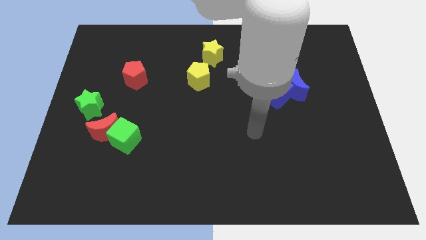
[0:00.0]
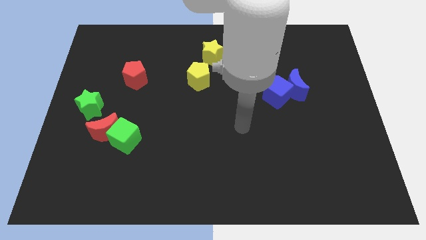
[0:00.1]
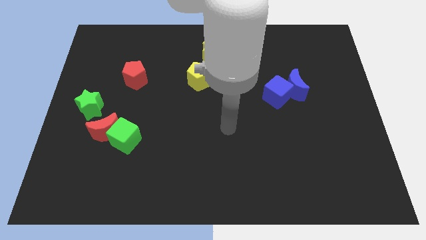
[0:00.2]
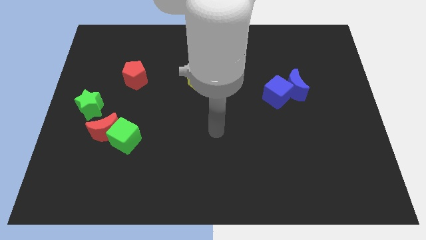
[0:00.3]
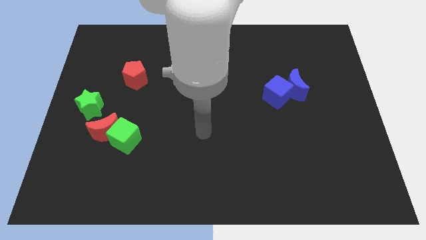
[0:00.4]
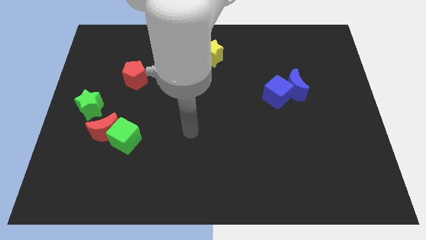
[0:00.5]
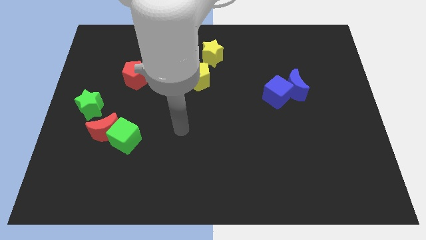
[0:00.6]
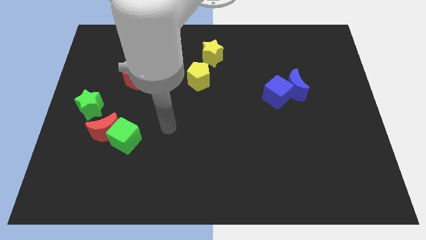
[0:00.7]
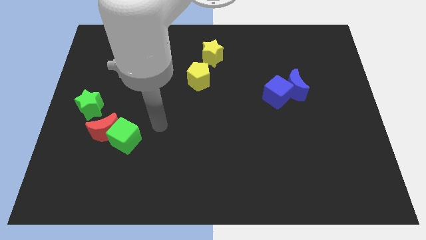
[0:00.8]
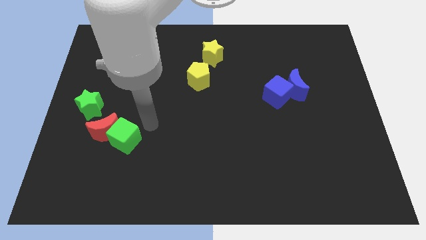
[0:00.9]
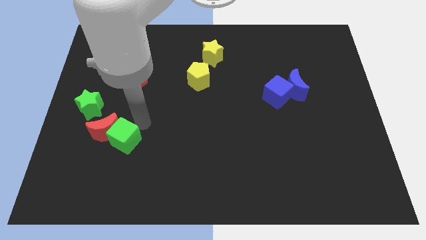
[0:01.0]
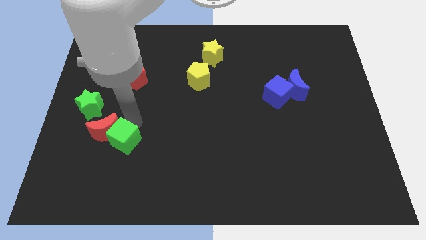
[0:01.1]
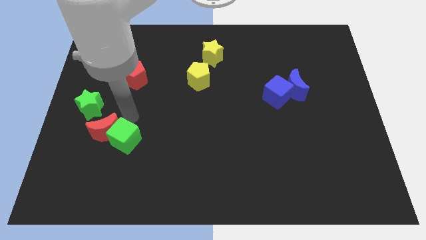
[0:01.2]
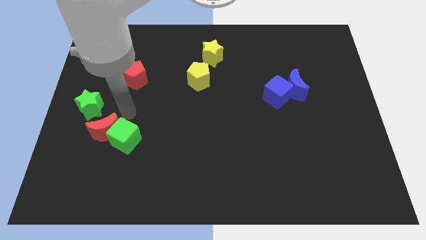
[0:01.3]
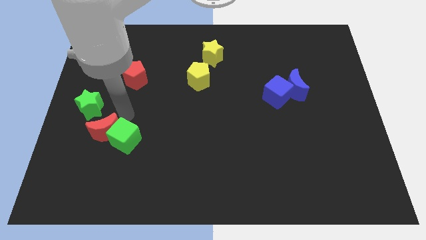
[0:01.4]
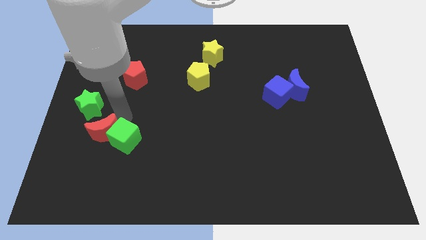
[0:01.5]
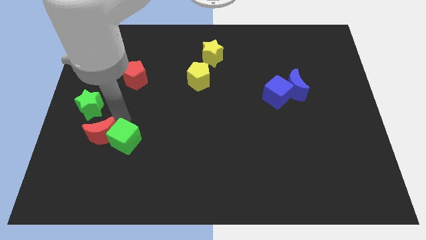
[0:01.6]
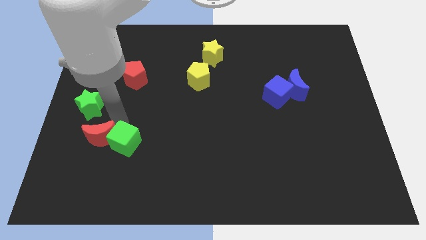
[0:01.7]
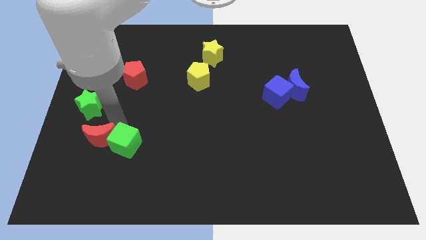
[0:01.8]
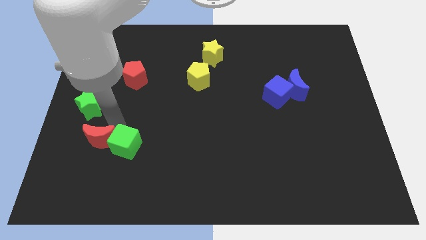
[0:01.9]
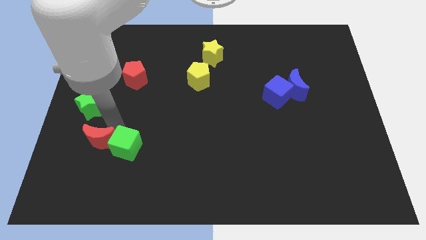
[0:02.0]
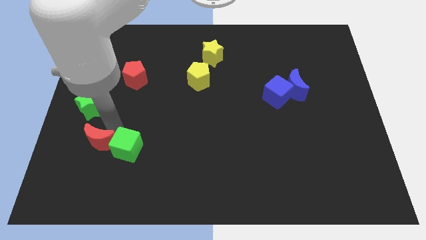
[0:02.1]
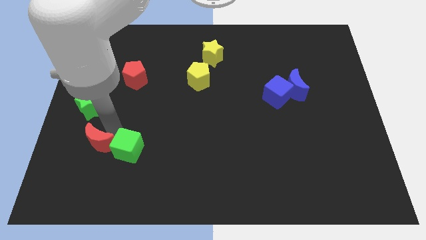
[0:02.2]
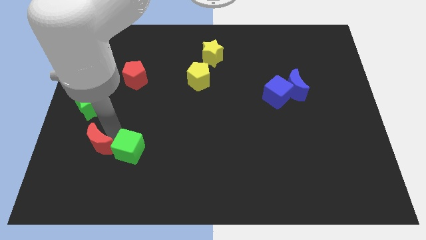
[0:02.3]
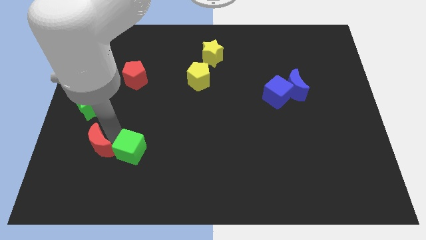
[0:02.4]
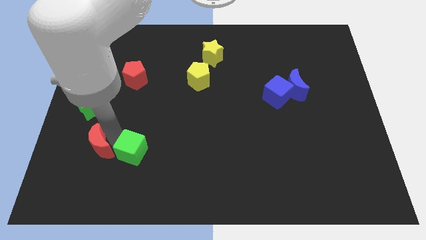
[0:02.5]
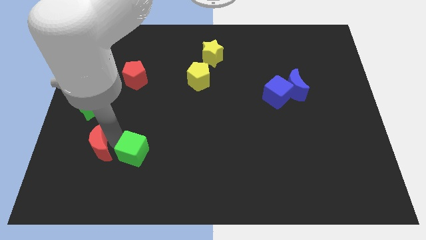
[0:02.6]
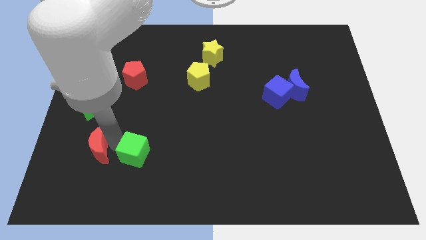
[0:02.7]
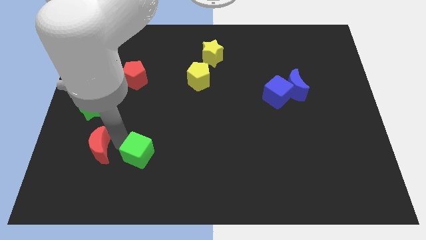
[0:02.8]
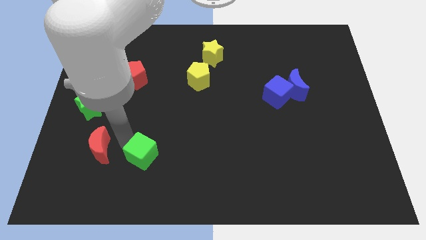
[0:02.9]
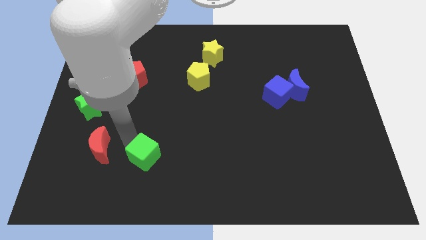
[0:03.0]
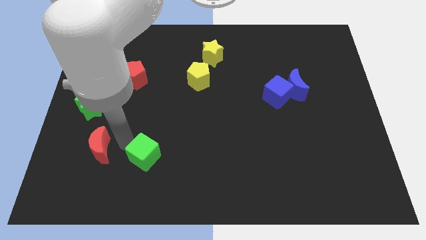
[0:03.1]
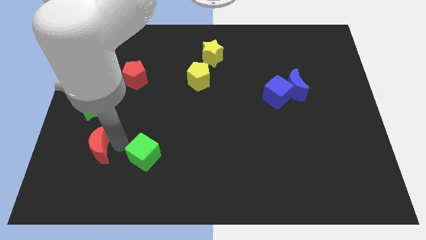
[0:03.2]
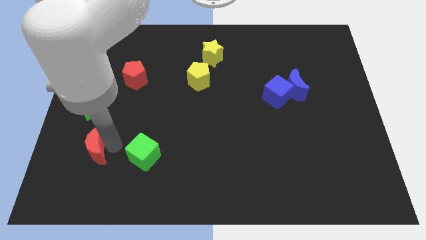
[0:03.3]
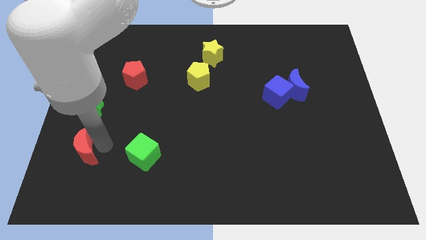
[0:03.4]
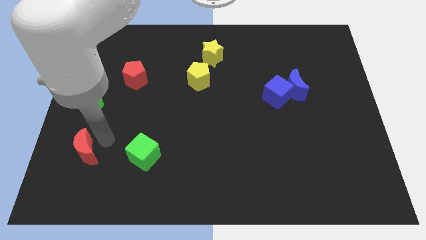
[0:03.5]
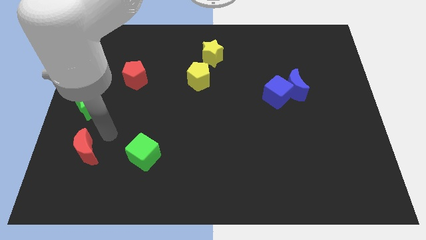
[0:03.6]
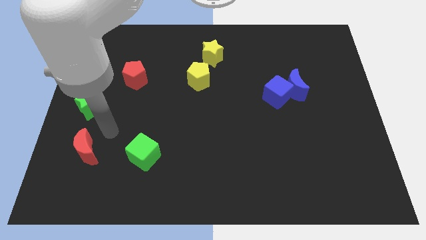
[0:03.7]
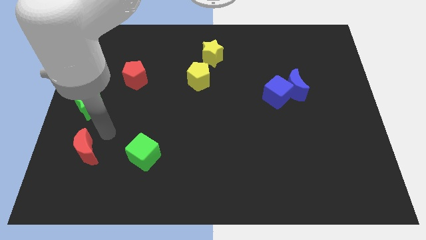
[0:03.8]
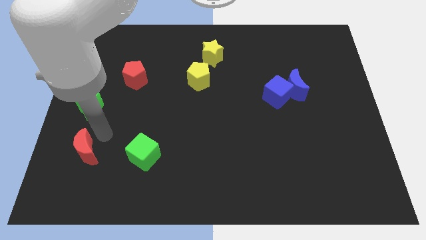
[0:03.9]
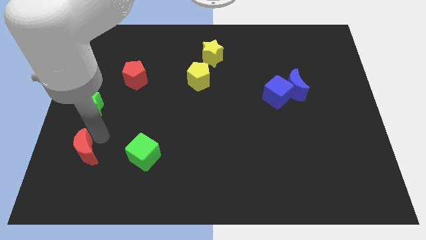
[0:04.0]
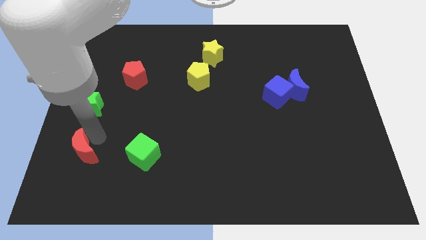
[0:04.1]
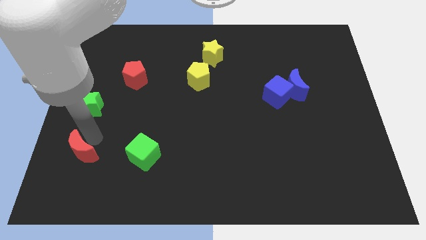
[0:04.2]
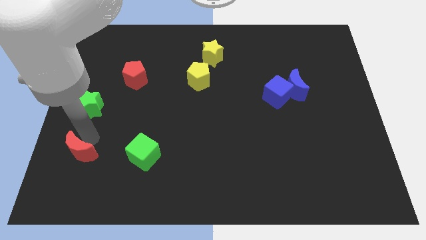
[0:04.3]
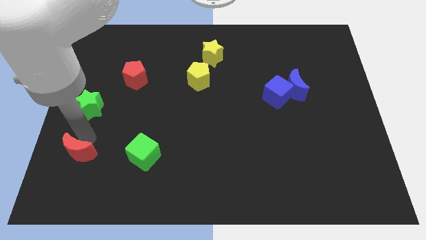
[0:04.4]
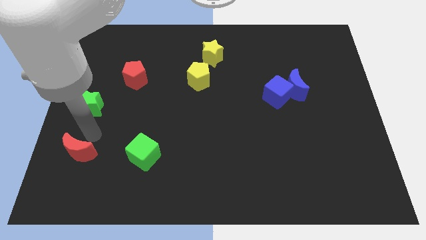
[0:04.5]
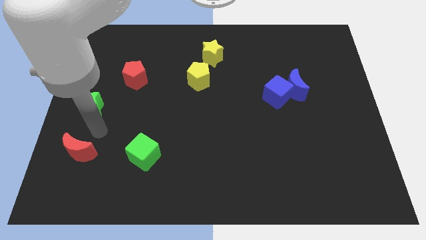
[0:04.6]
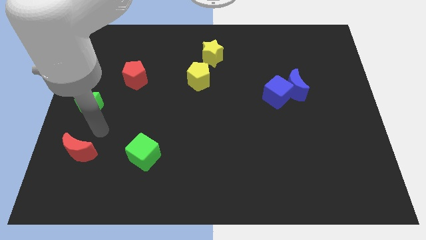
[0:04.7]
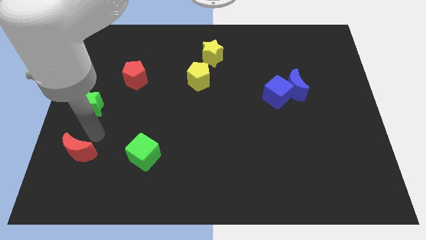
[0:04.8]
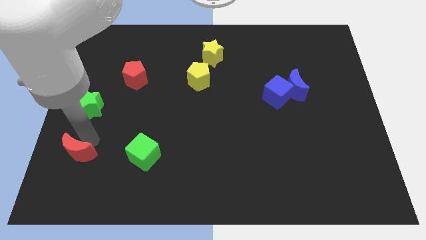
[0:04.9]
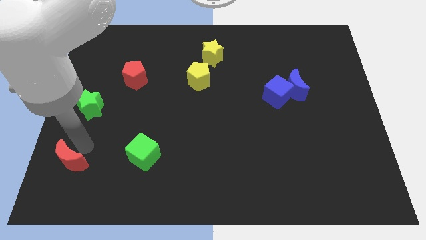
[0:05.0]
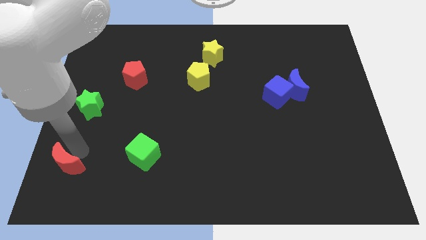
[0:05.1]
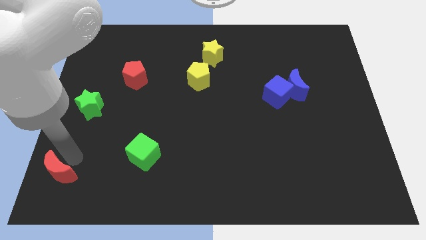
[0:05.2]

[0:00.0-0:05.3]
push the red moon to the bottom left

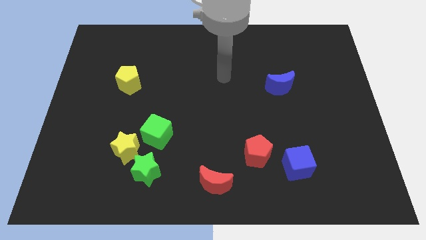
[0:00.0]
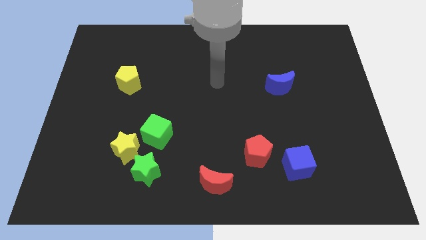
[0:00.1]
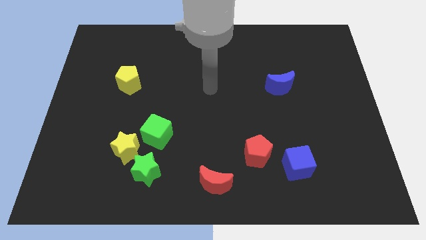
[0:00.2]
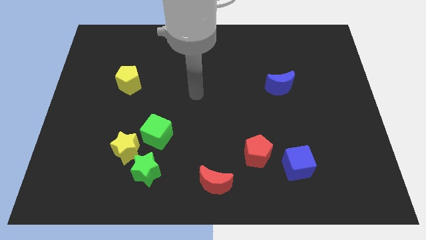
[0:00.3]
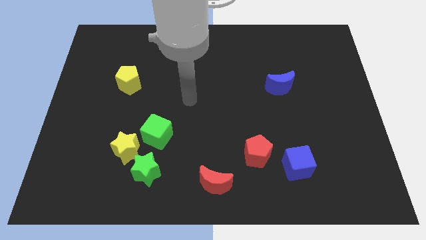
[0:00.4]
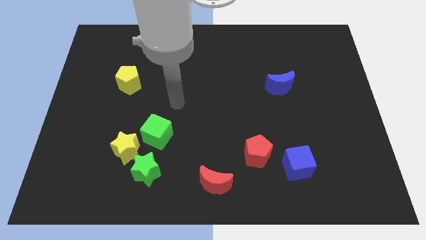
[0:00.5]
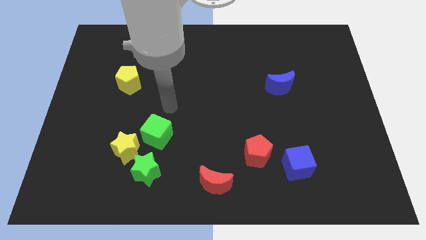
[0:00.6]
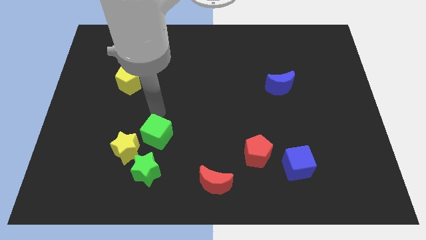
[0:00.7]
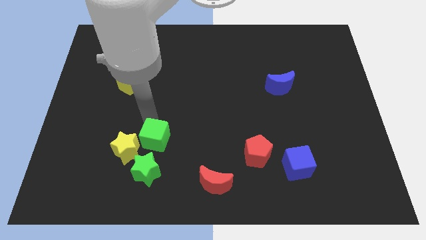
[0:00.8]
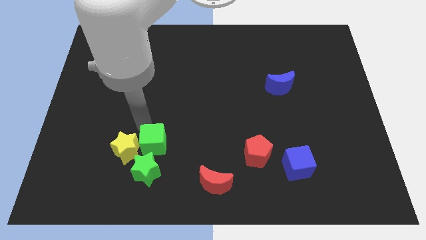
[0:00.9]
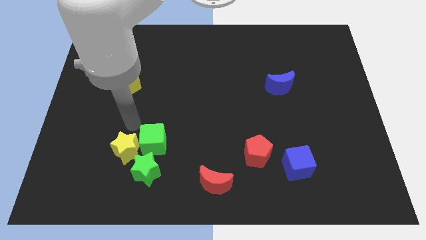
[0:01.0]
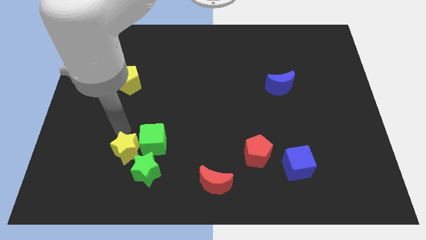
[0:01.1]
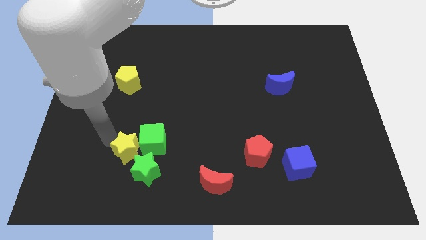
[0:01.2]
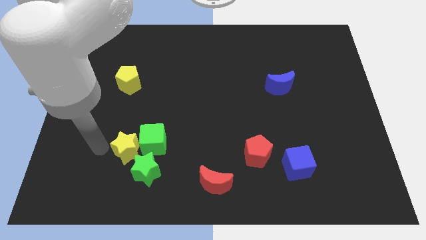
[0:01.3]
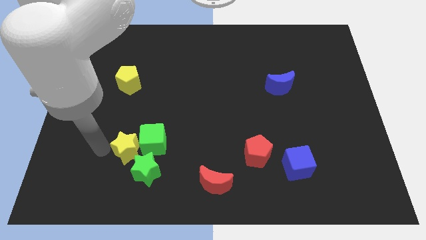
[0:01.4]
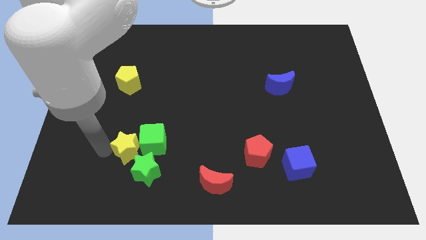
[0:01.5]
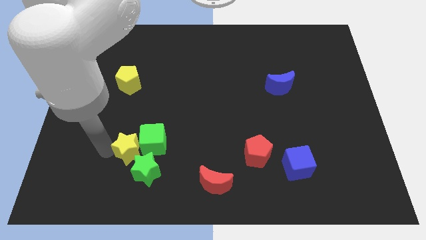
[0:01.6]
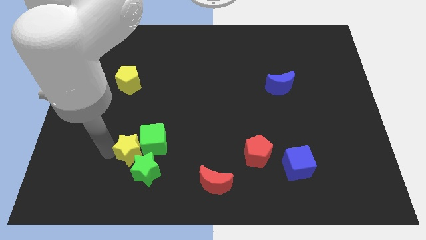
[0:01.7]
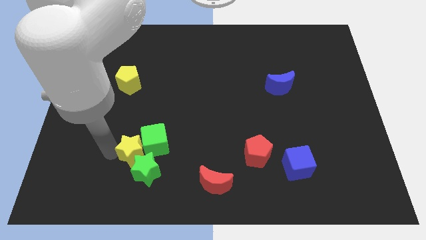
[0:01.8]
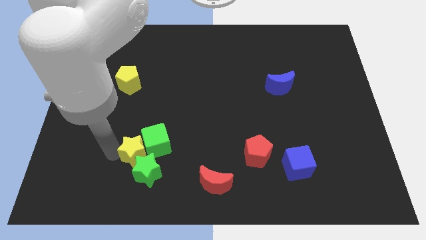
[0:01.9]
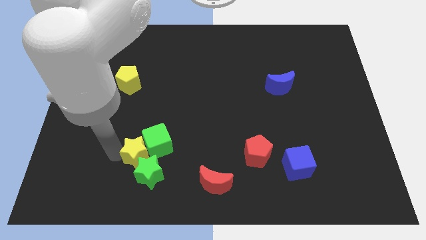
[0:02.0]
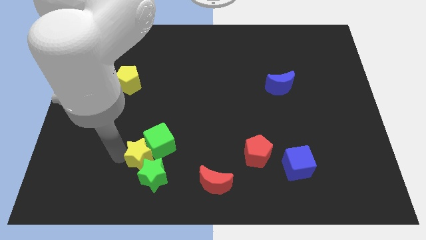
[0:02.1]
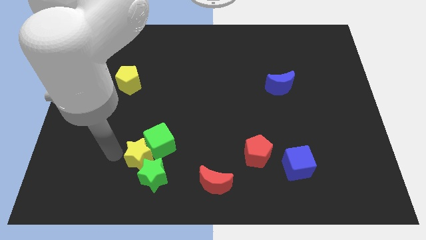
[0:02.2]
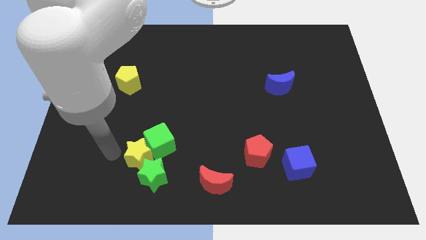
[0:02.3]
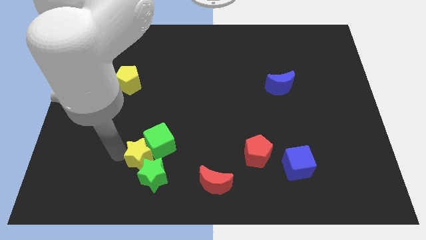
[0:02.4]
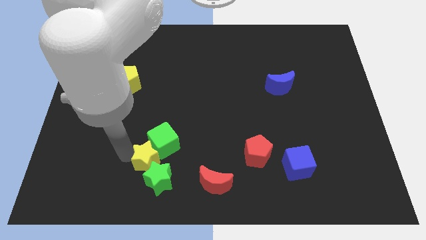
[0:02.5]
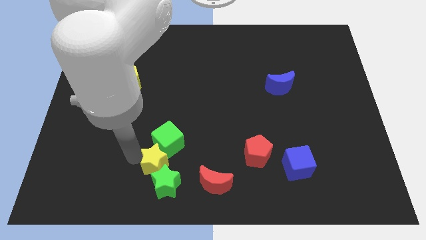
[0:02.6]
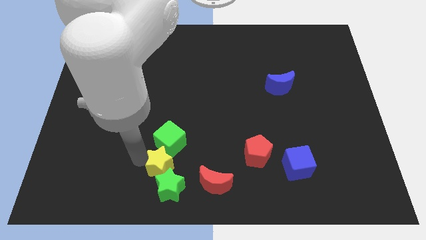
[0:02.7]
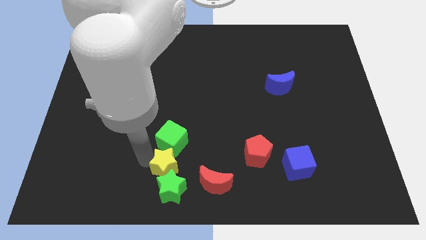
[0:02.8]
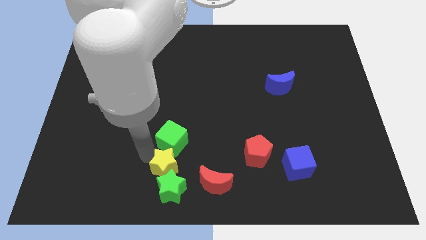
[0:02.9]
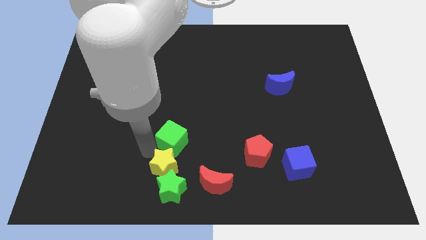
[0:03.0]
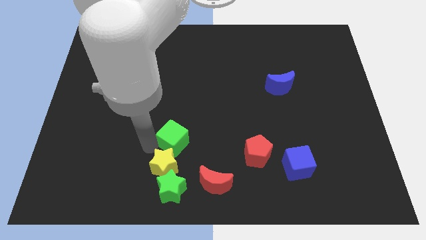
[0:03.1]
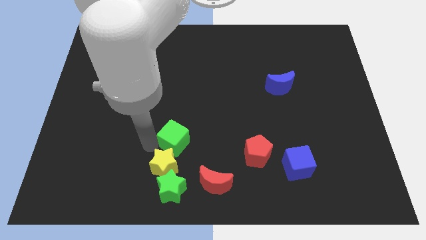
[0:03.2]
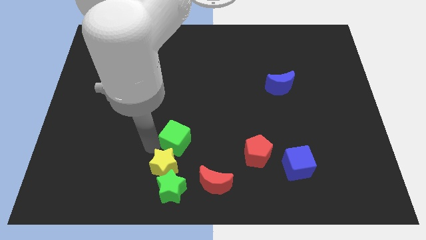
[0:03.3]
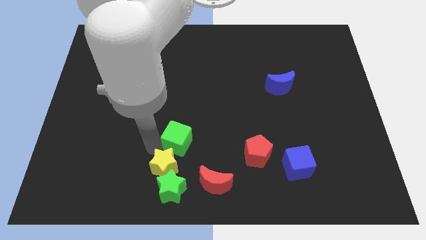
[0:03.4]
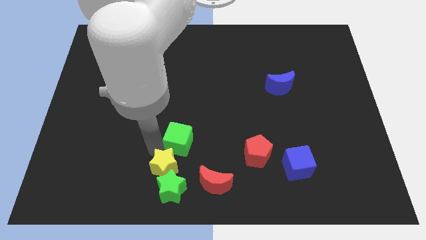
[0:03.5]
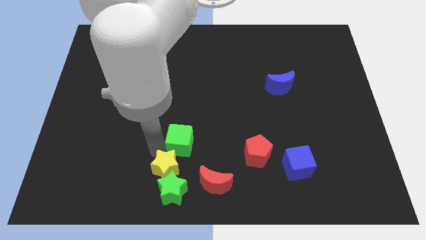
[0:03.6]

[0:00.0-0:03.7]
put the yellow star to the bottom
